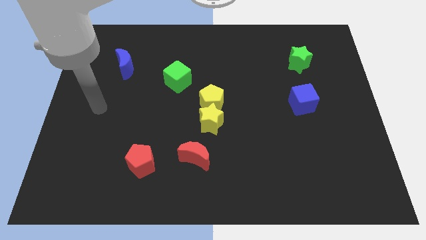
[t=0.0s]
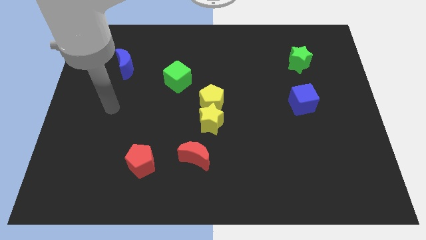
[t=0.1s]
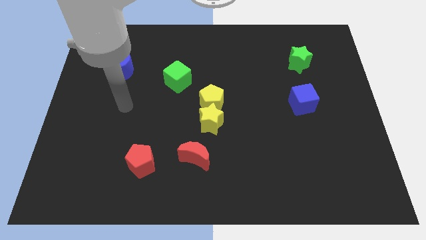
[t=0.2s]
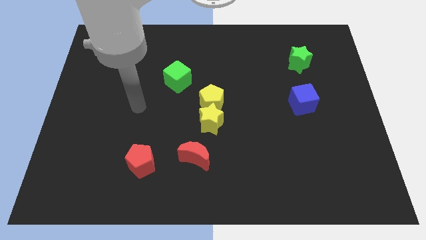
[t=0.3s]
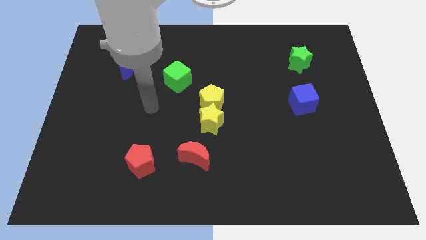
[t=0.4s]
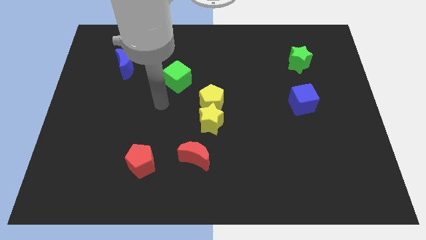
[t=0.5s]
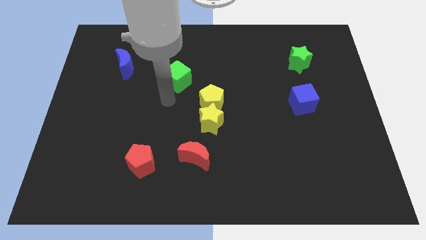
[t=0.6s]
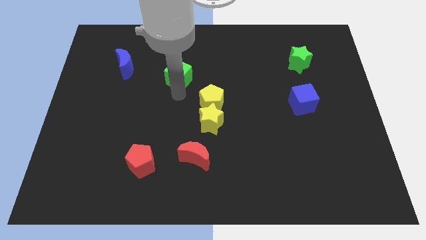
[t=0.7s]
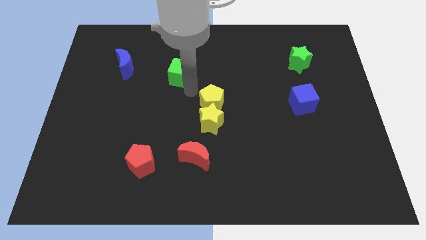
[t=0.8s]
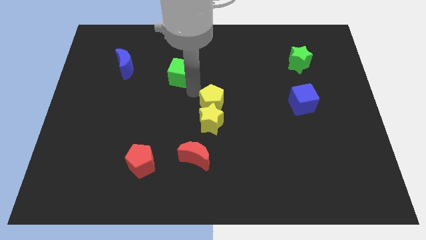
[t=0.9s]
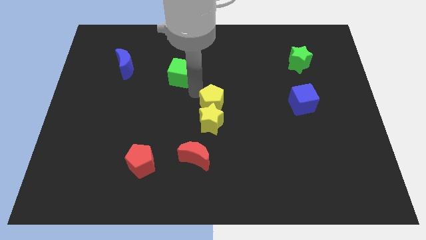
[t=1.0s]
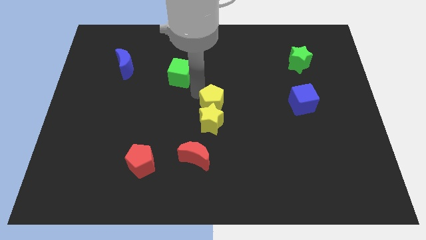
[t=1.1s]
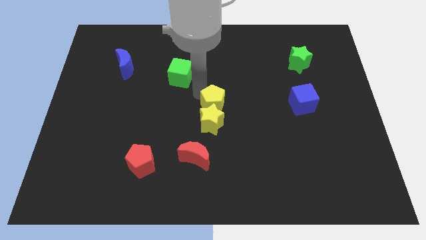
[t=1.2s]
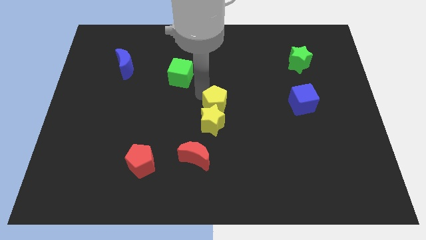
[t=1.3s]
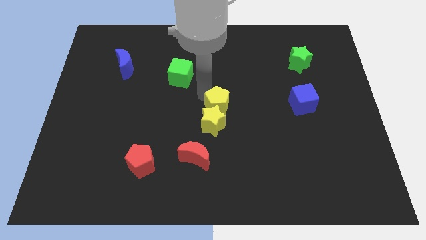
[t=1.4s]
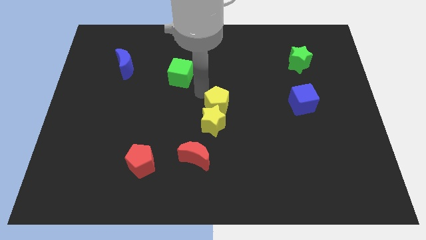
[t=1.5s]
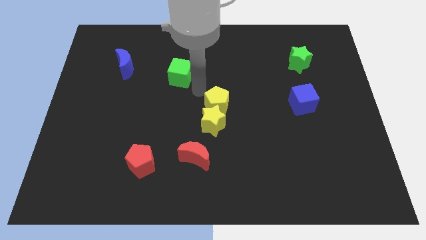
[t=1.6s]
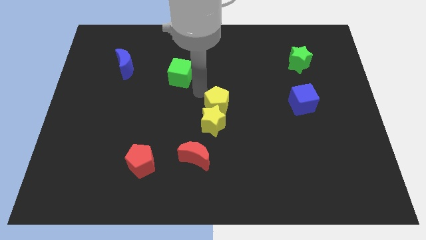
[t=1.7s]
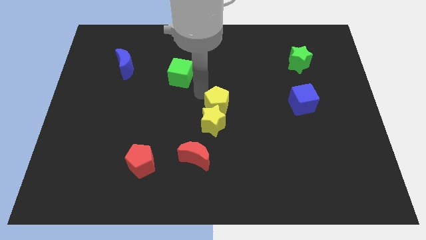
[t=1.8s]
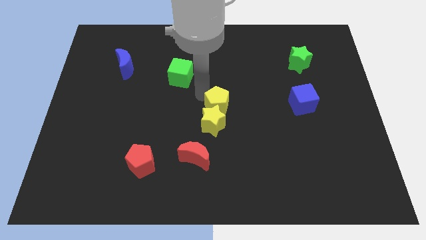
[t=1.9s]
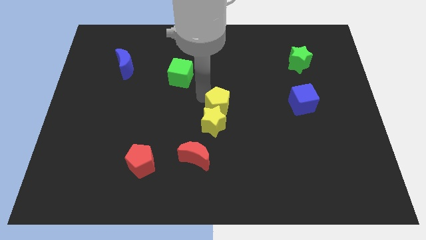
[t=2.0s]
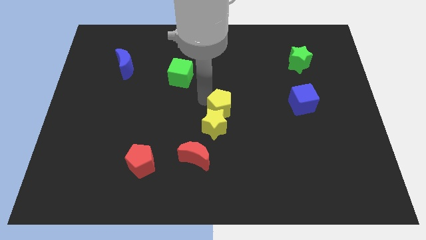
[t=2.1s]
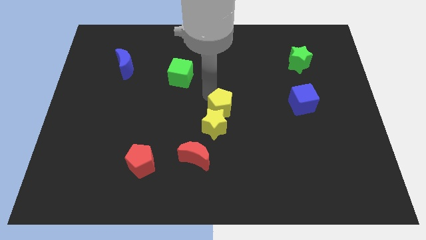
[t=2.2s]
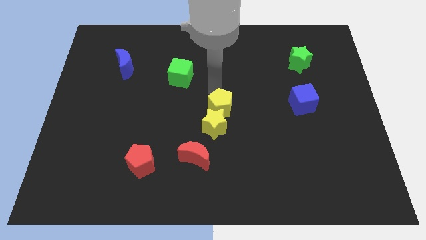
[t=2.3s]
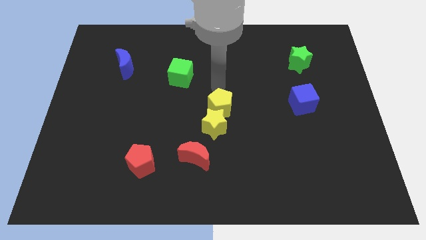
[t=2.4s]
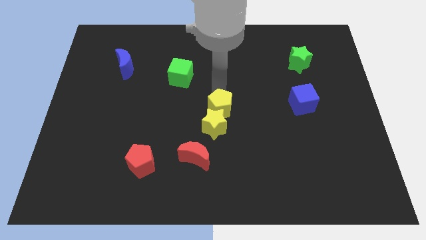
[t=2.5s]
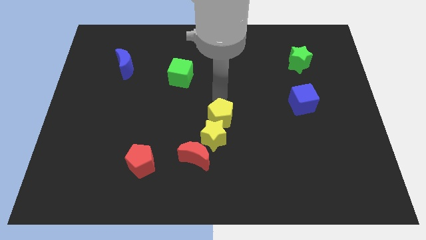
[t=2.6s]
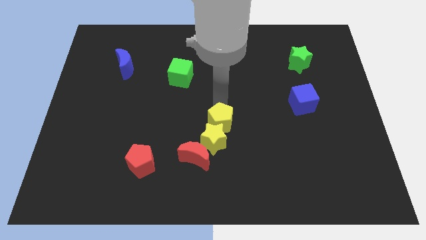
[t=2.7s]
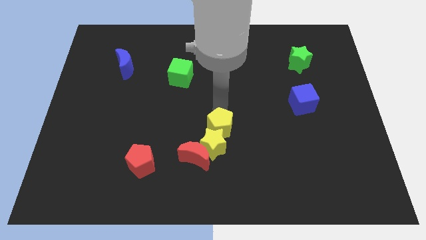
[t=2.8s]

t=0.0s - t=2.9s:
push the yellow pentagon downwards a little

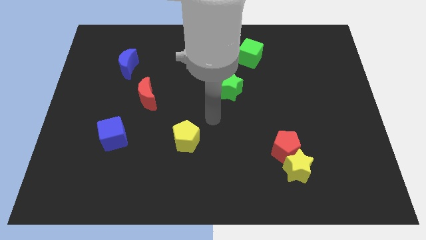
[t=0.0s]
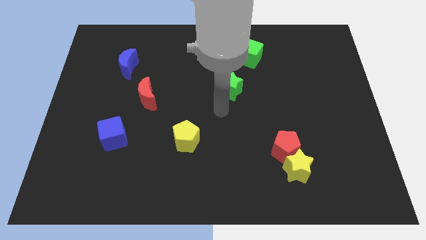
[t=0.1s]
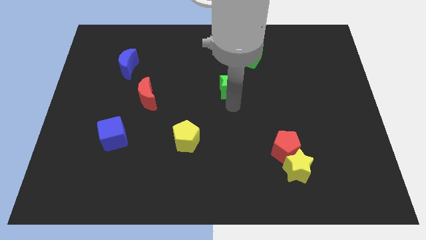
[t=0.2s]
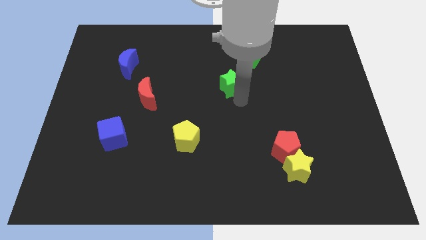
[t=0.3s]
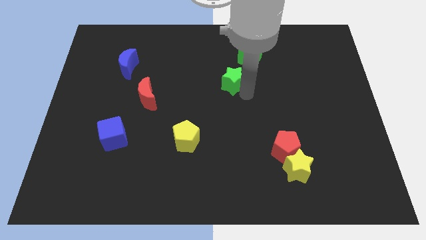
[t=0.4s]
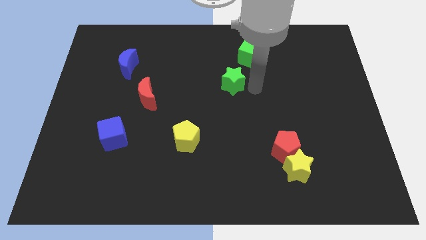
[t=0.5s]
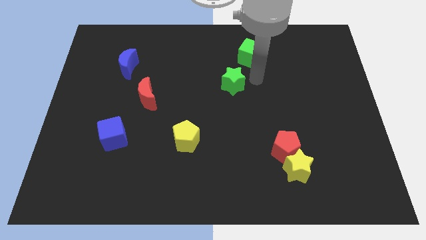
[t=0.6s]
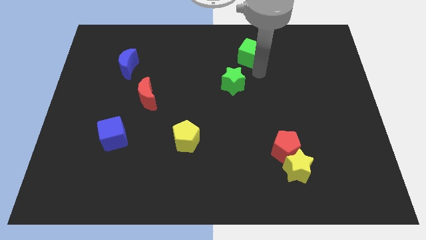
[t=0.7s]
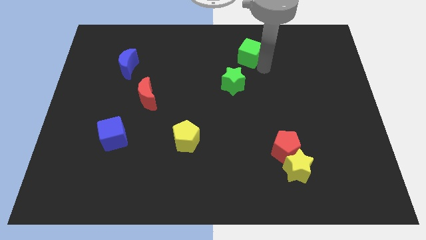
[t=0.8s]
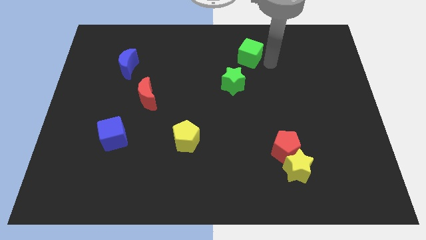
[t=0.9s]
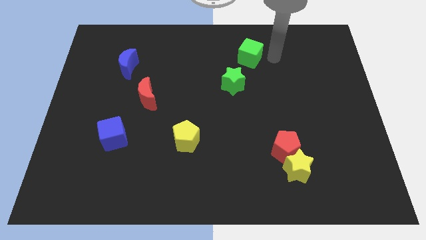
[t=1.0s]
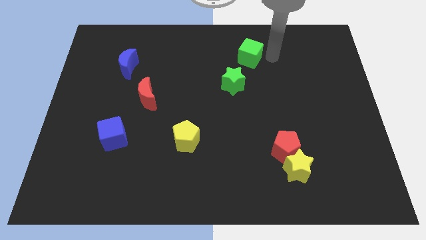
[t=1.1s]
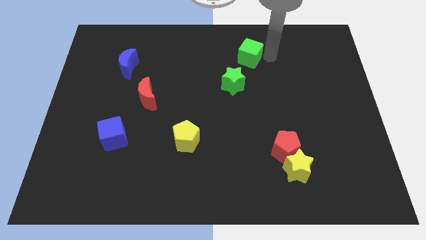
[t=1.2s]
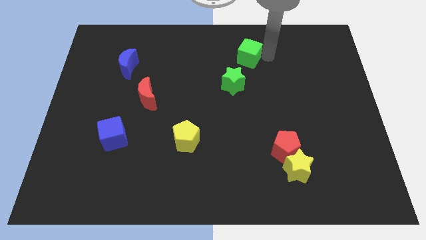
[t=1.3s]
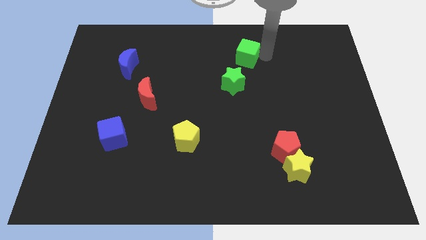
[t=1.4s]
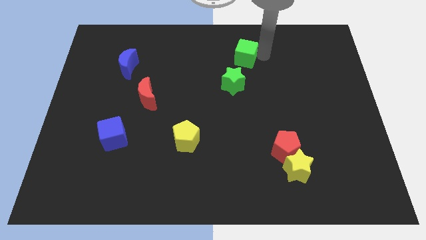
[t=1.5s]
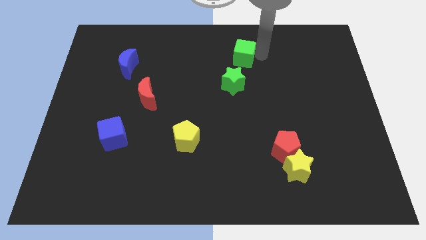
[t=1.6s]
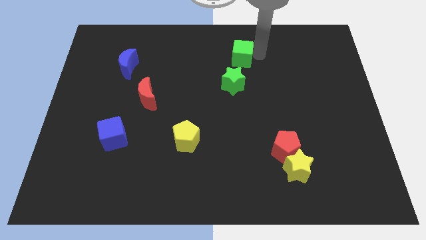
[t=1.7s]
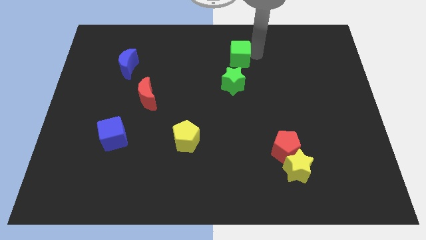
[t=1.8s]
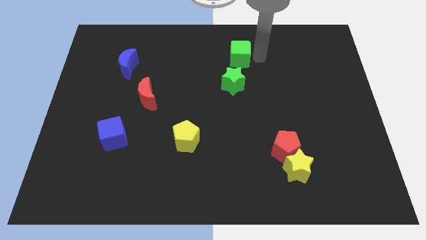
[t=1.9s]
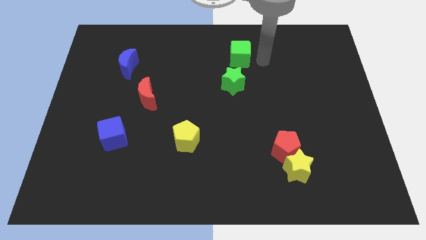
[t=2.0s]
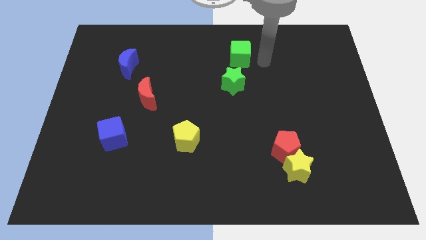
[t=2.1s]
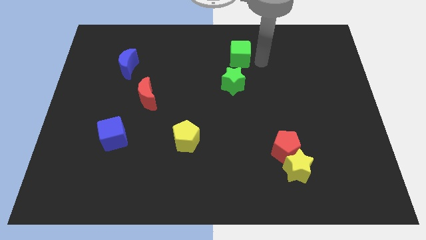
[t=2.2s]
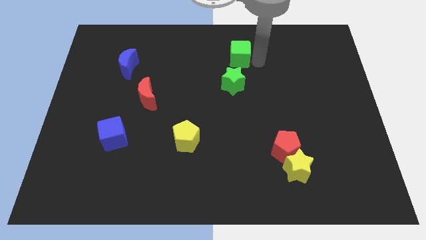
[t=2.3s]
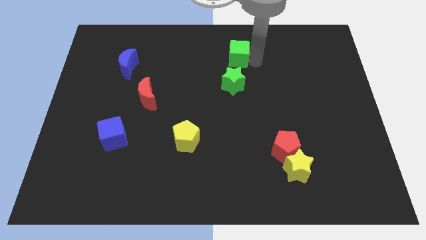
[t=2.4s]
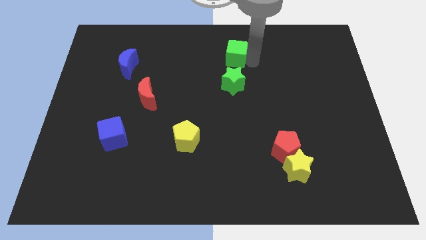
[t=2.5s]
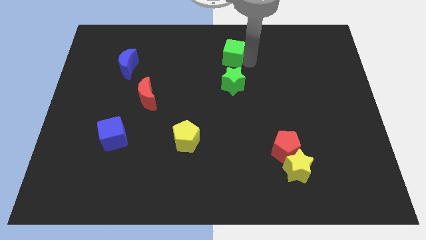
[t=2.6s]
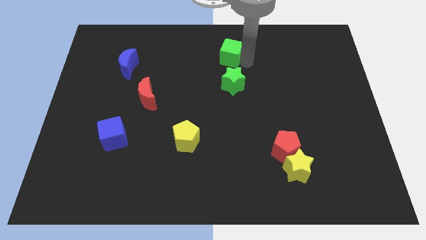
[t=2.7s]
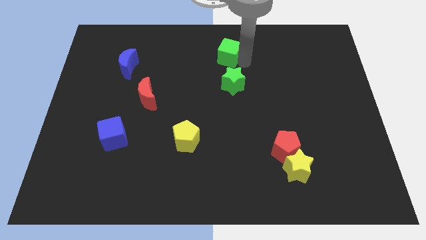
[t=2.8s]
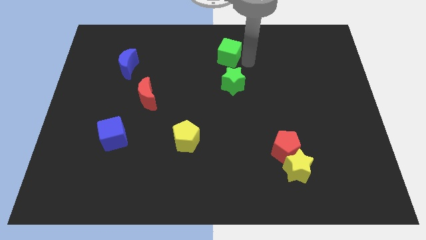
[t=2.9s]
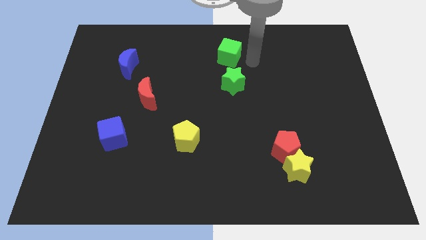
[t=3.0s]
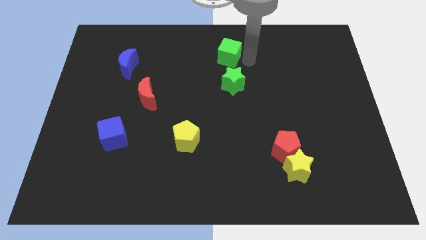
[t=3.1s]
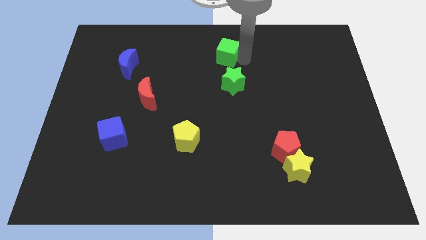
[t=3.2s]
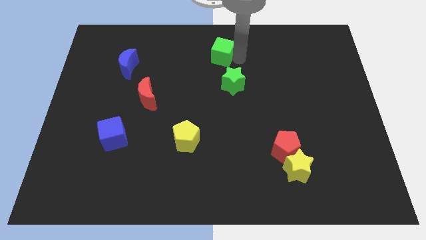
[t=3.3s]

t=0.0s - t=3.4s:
slightly move the green cube to the left

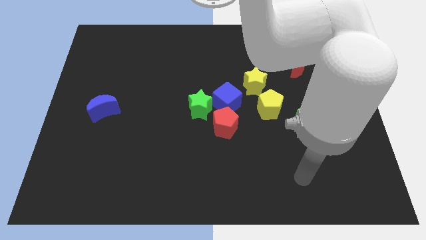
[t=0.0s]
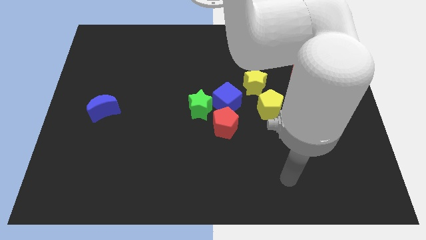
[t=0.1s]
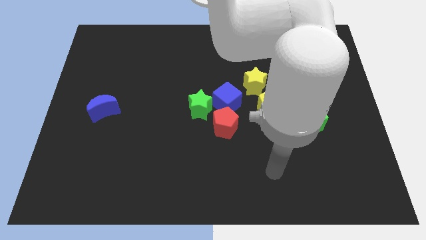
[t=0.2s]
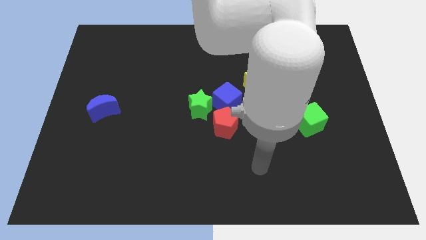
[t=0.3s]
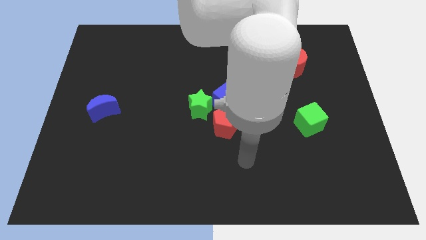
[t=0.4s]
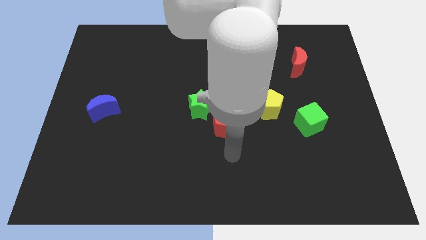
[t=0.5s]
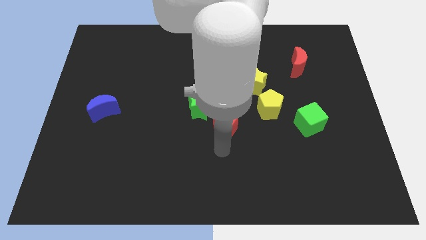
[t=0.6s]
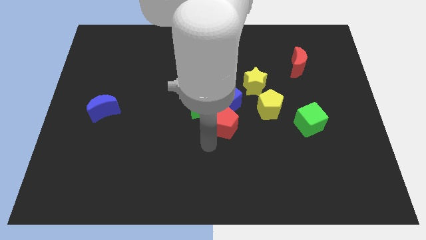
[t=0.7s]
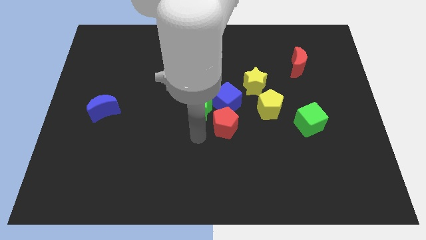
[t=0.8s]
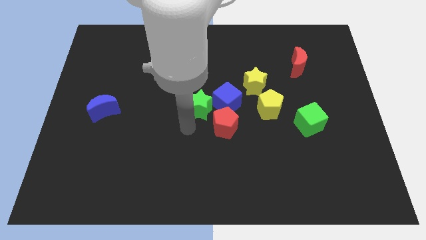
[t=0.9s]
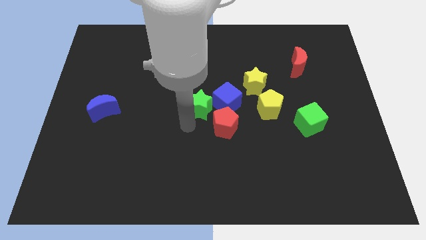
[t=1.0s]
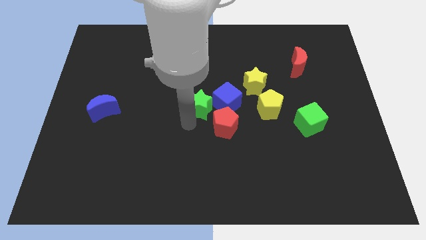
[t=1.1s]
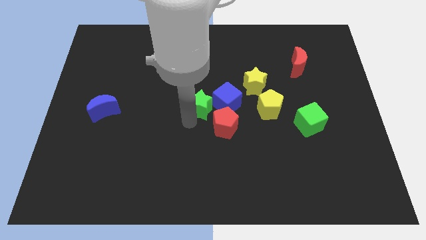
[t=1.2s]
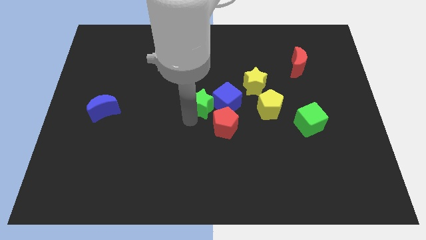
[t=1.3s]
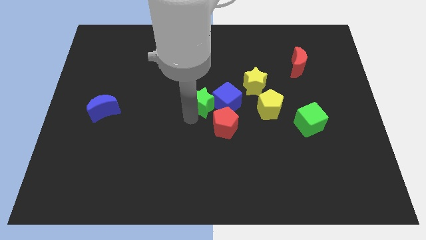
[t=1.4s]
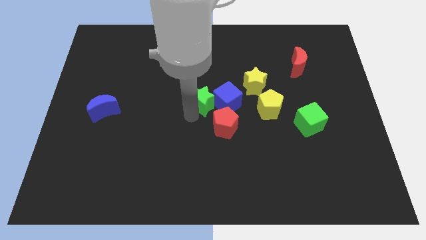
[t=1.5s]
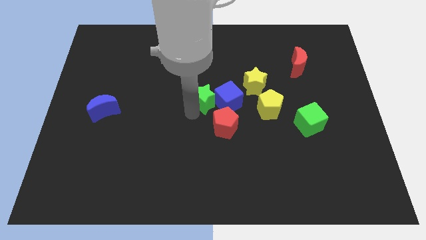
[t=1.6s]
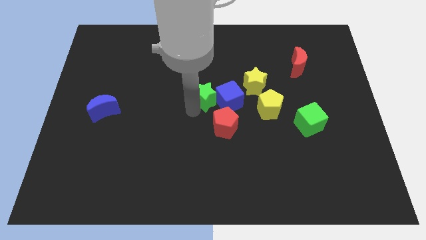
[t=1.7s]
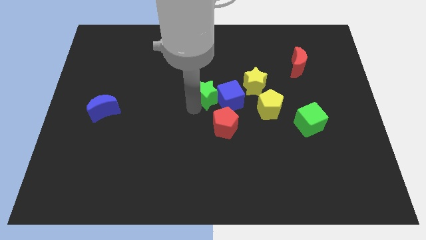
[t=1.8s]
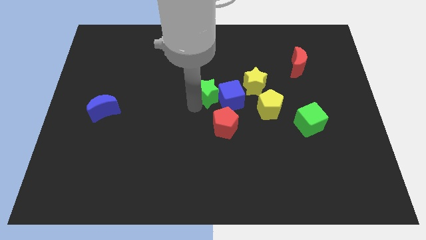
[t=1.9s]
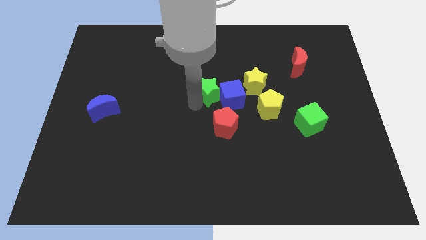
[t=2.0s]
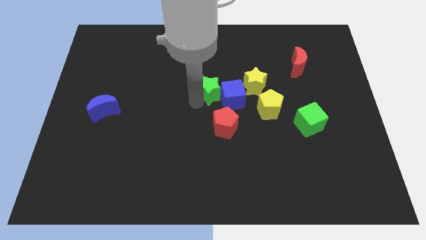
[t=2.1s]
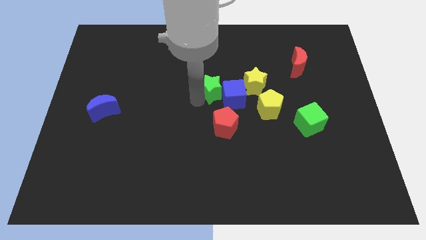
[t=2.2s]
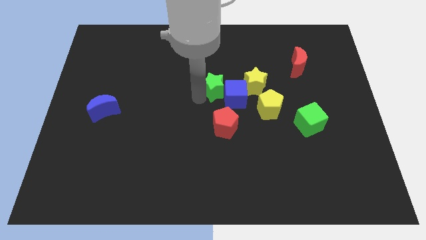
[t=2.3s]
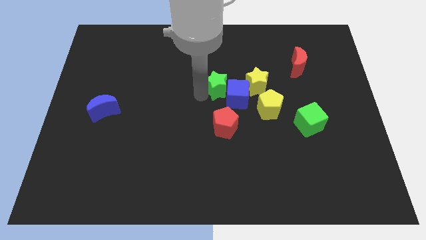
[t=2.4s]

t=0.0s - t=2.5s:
push the green star diagonally up and right a little bit
